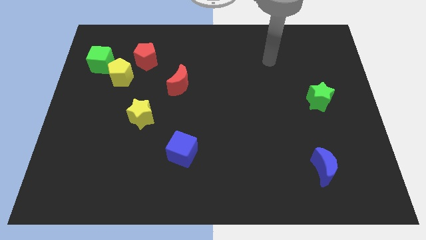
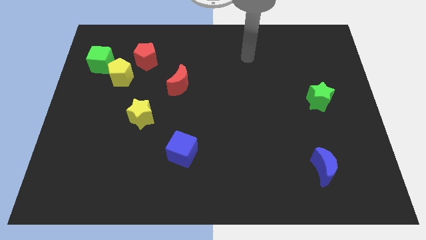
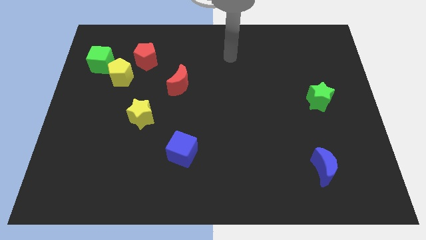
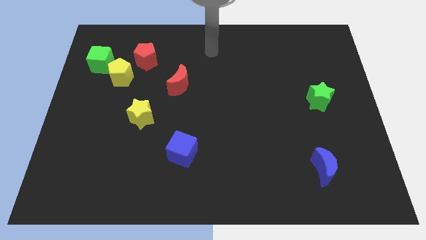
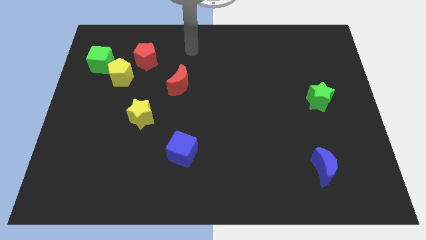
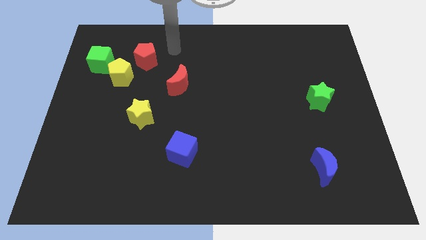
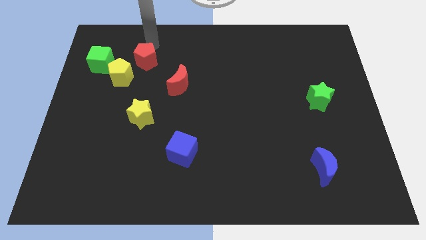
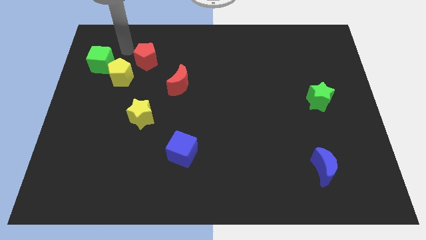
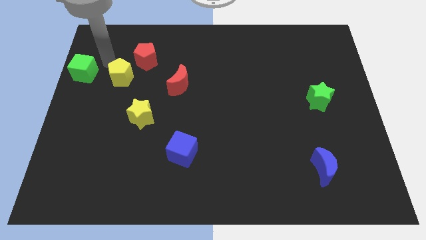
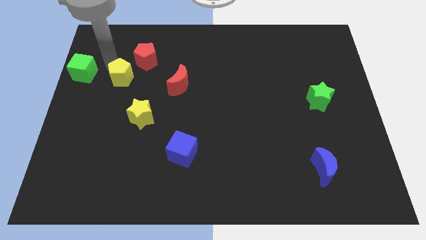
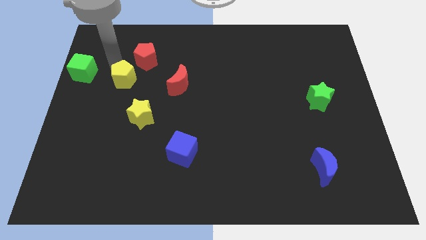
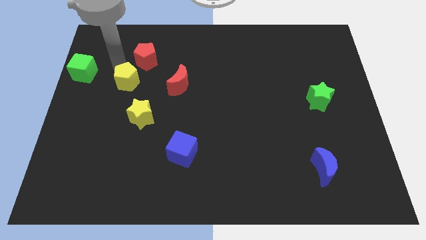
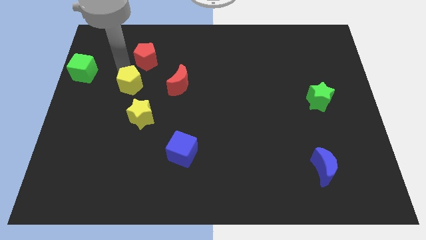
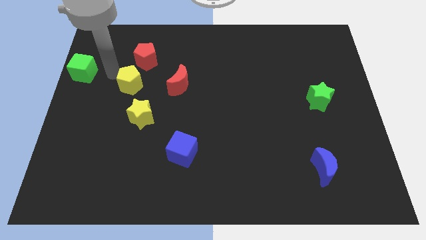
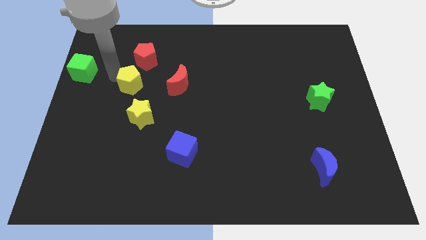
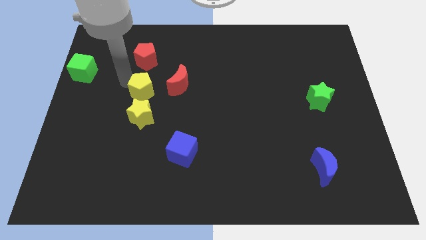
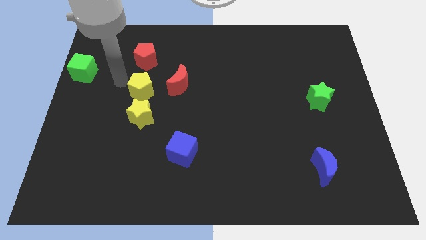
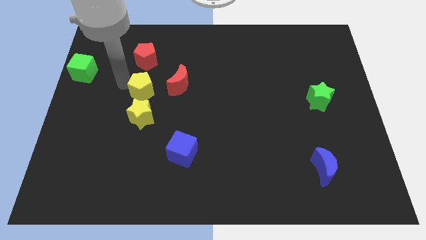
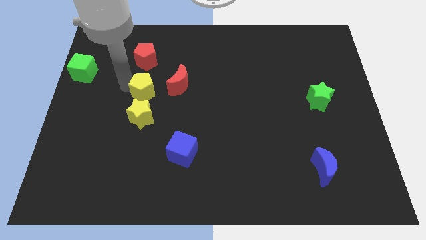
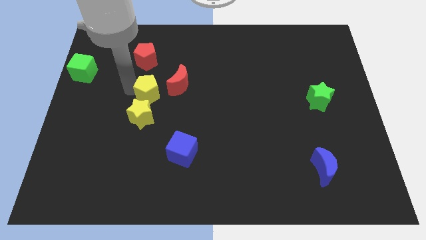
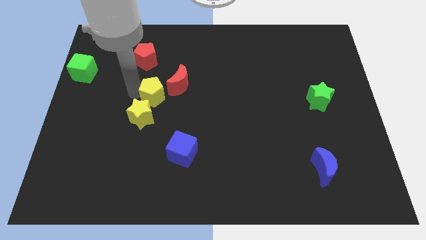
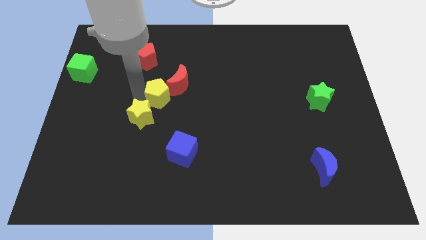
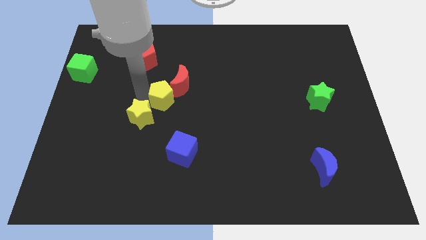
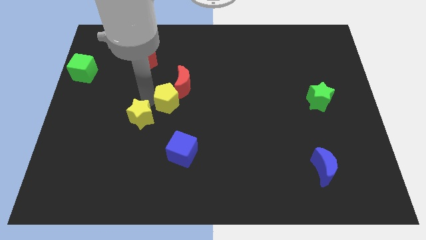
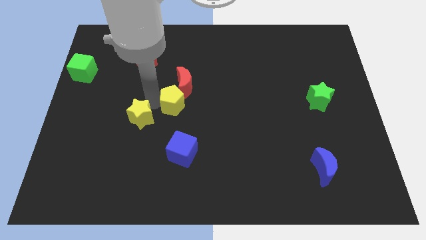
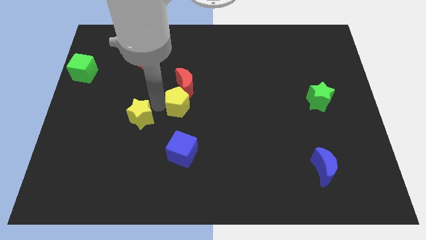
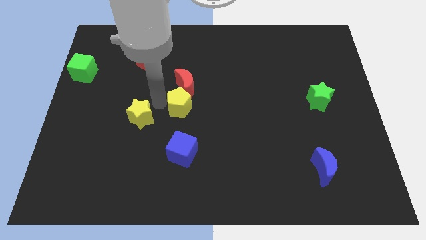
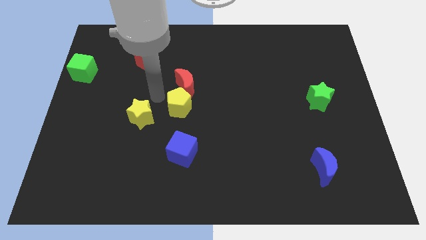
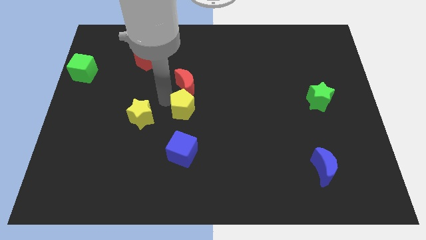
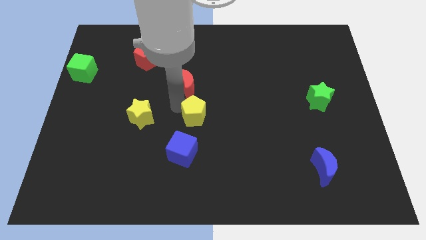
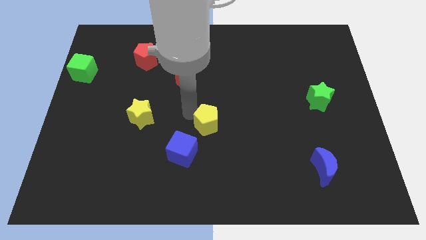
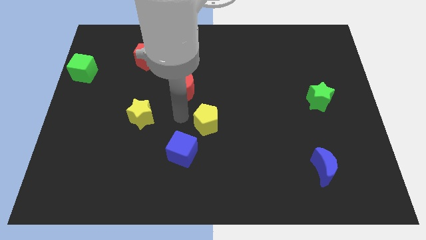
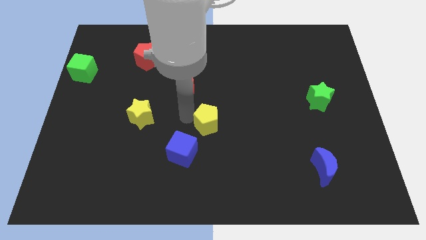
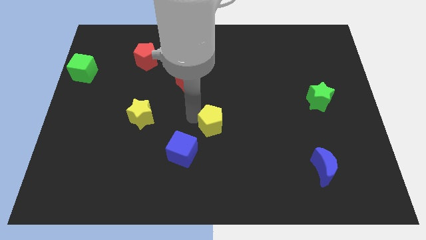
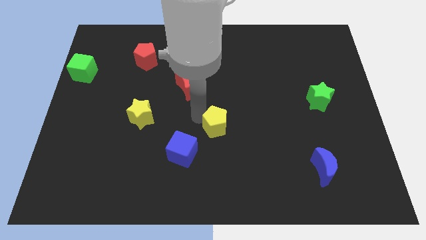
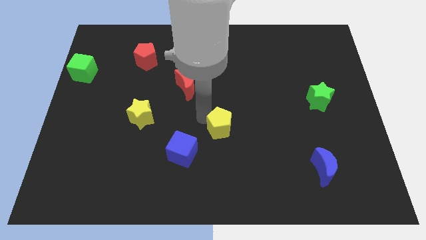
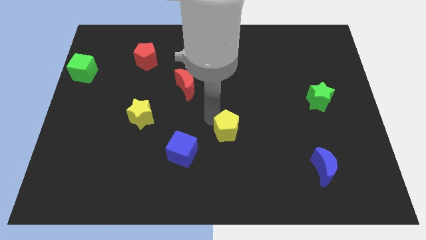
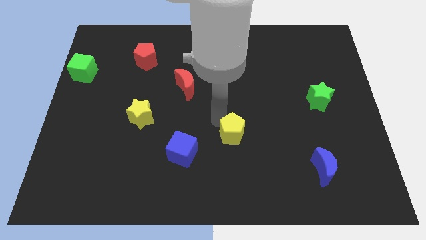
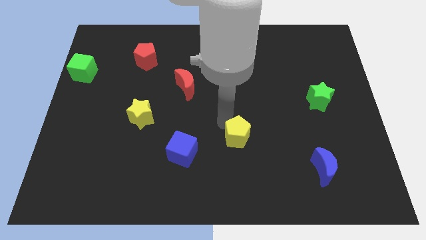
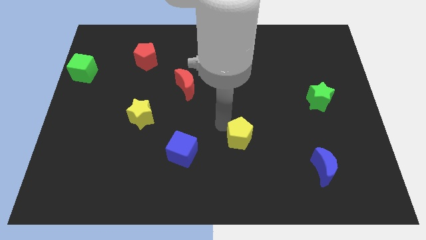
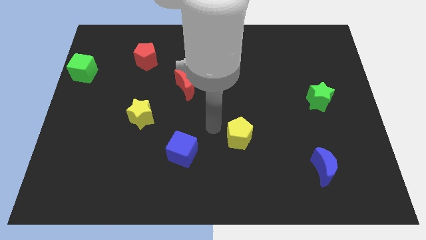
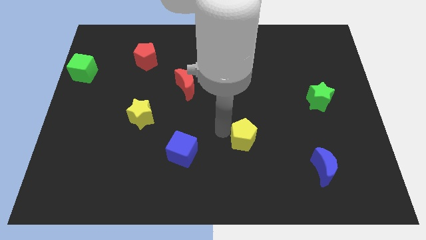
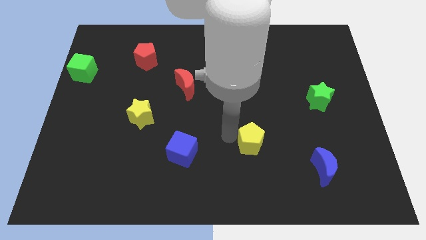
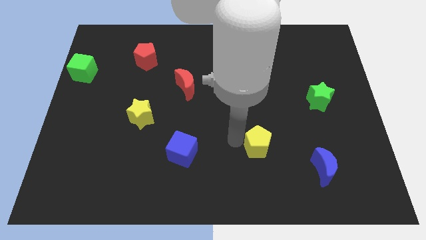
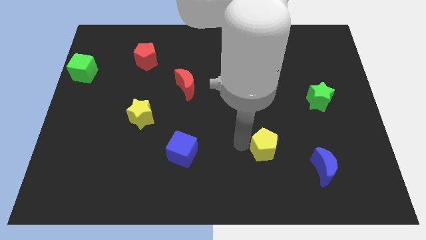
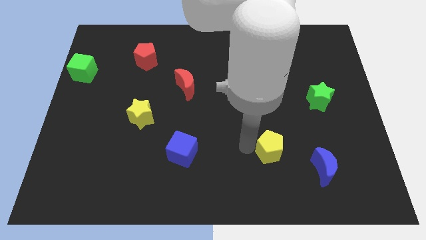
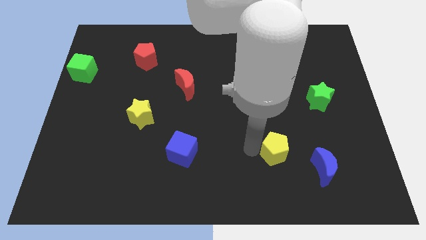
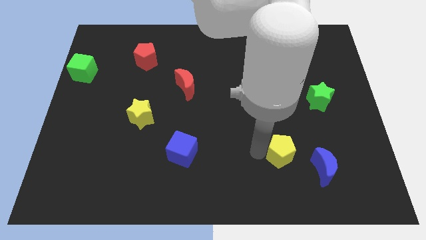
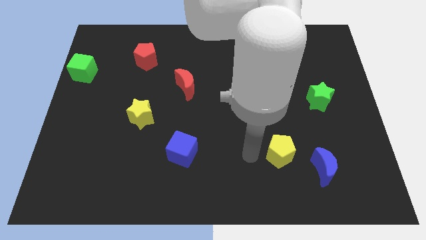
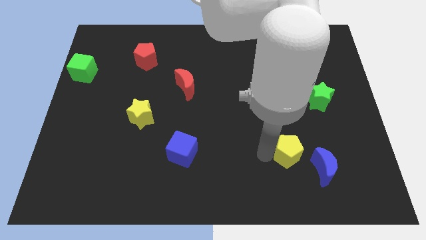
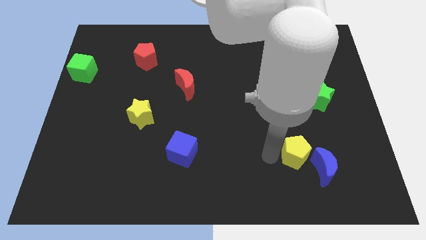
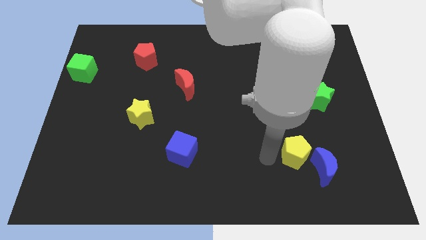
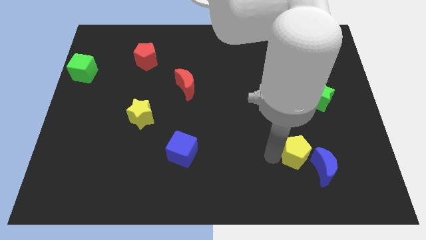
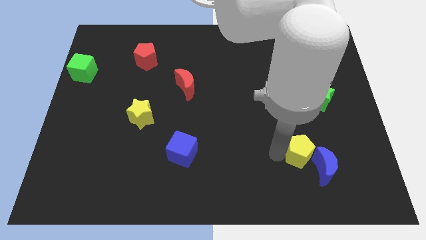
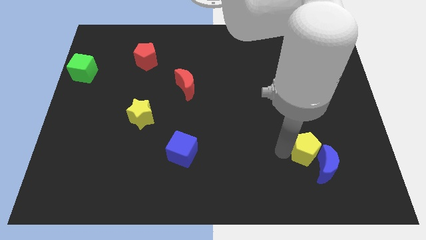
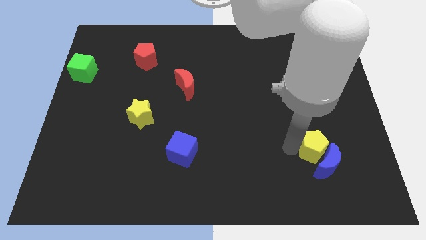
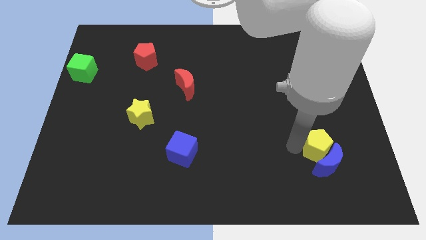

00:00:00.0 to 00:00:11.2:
push the yellow pentagon to the top right side of the blue moon

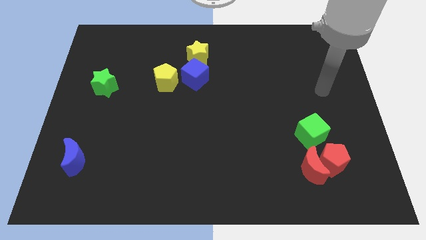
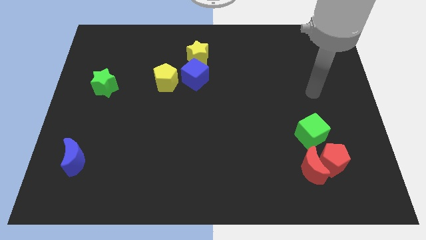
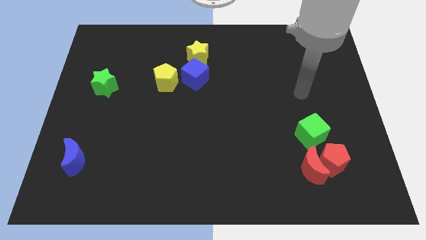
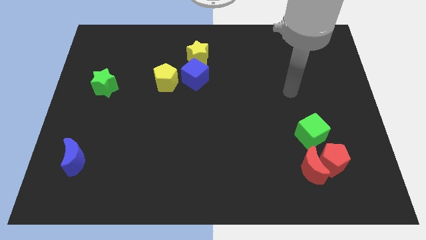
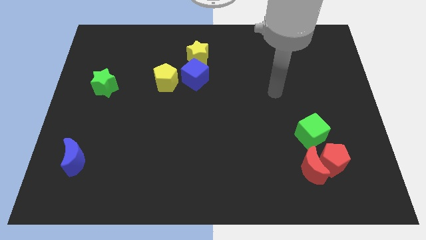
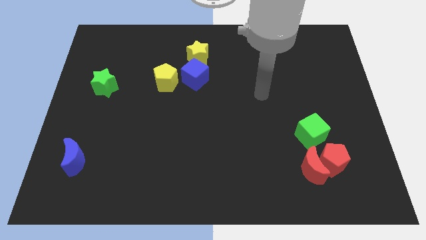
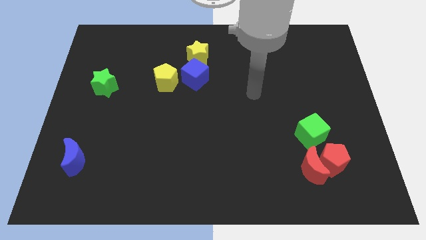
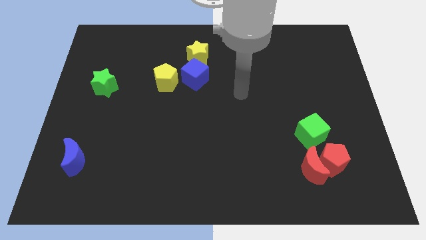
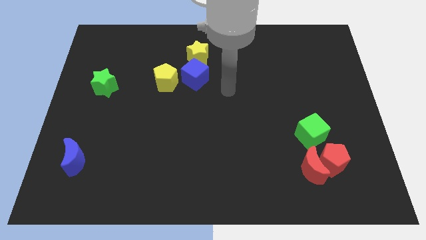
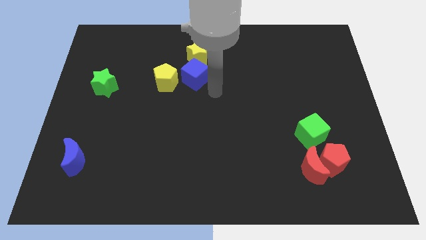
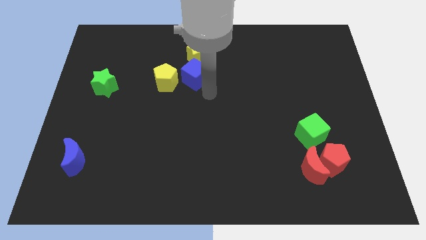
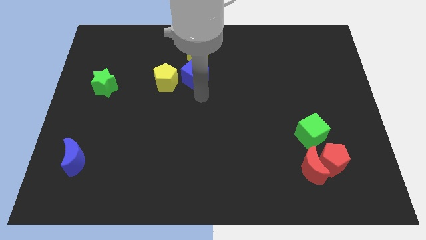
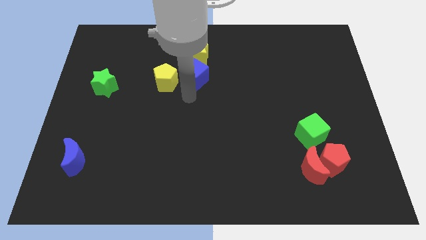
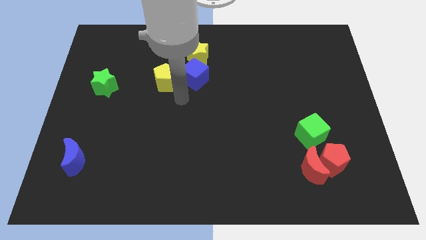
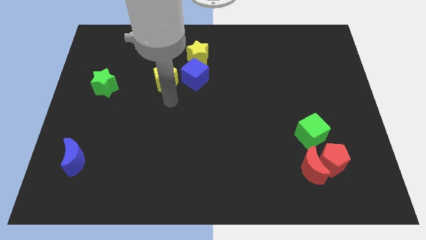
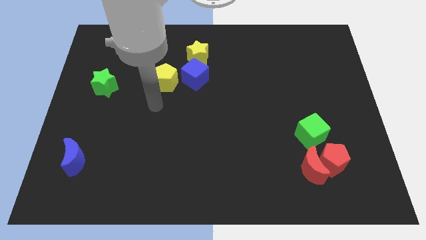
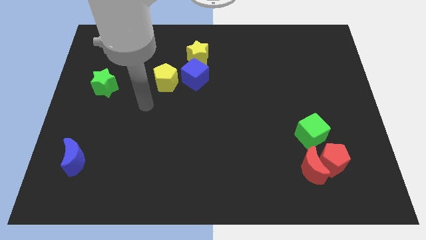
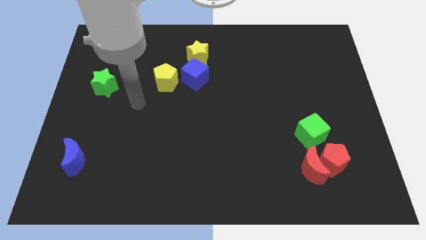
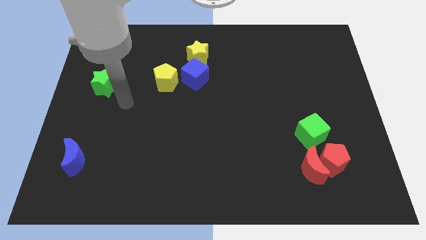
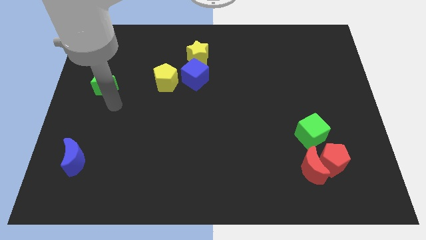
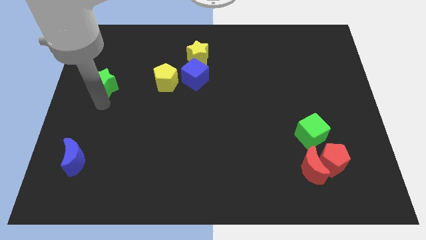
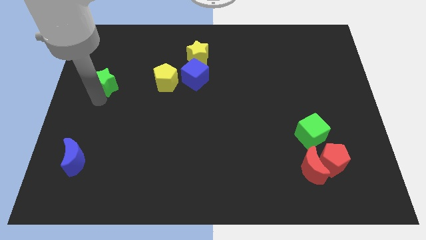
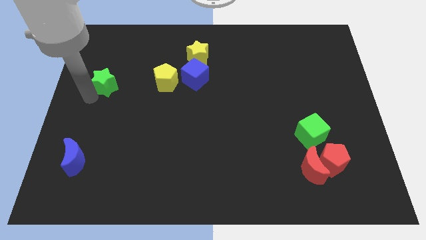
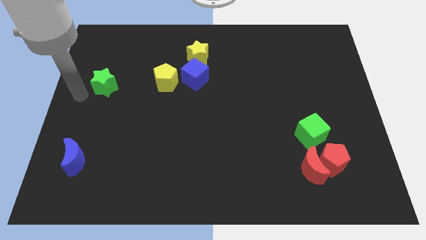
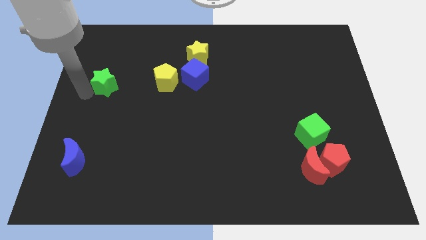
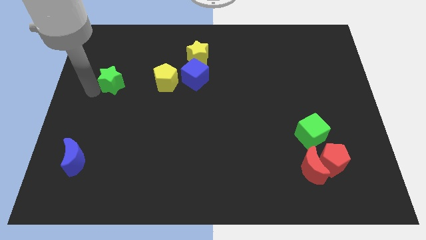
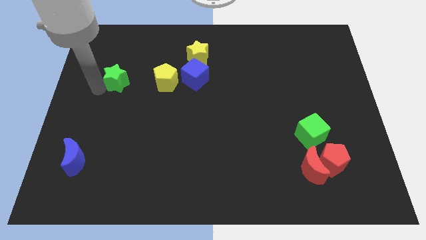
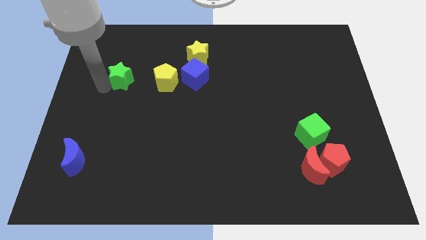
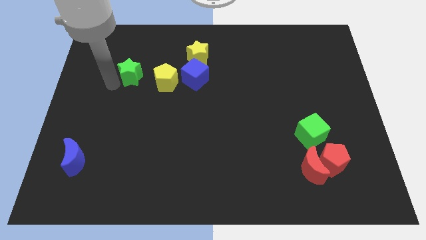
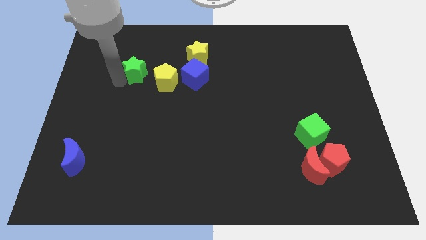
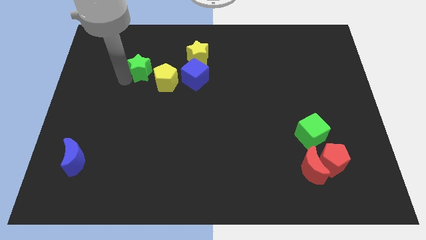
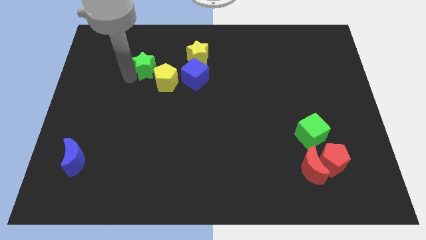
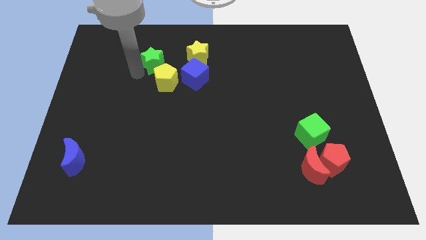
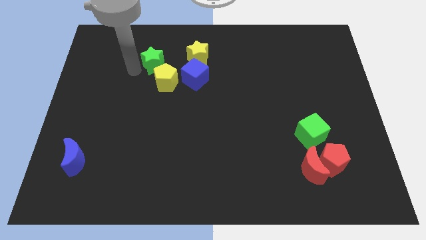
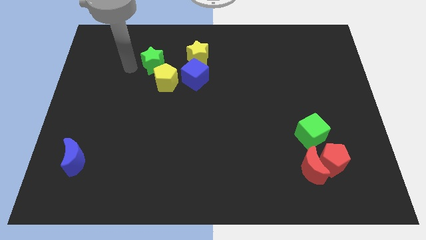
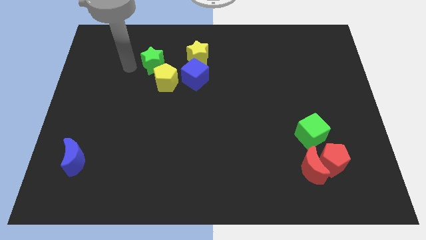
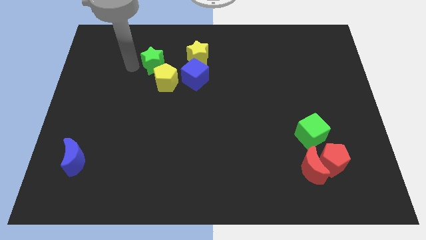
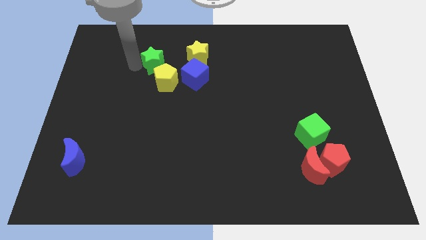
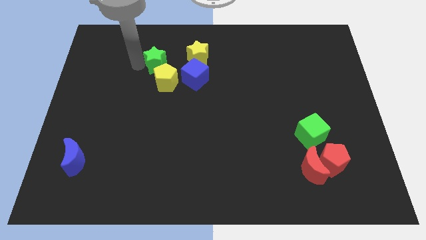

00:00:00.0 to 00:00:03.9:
move the green star diagonally up and to the left of the blue cube
